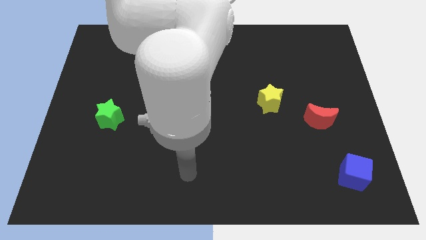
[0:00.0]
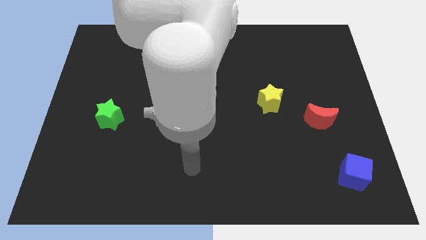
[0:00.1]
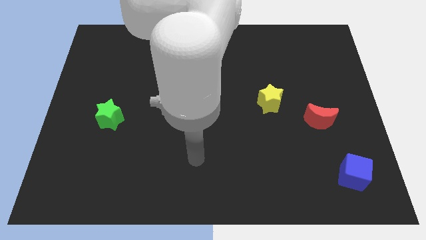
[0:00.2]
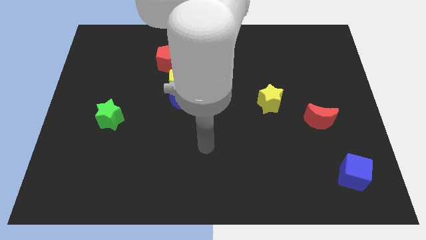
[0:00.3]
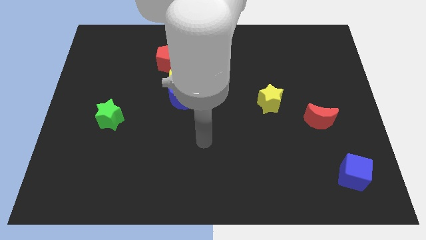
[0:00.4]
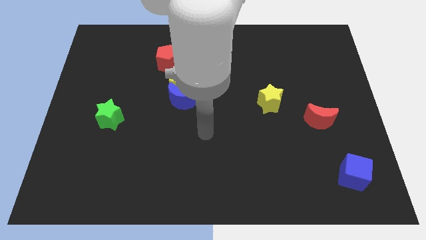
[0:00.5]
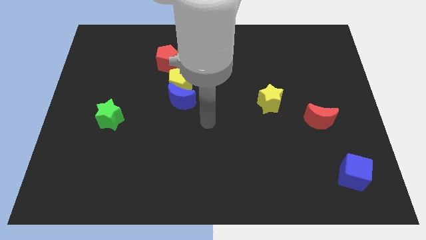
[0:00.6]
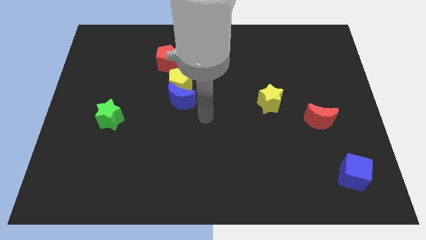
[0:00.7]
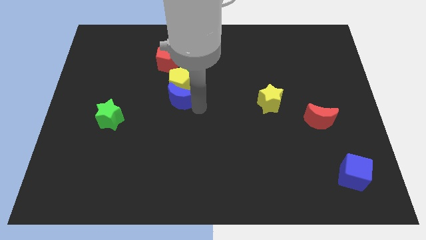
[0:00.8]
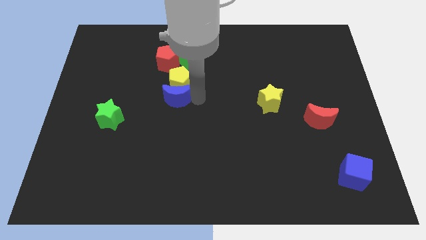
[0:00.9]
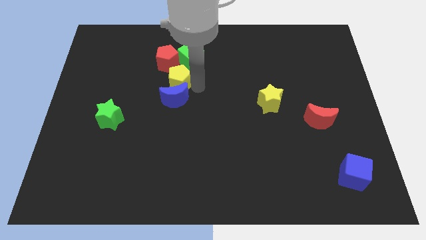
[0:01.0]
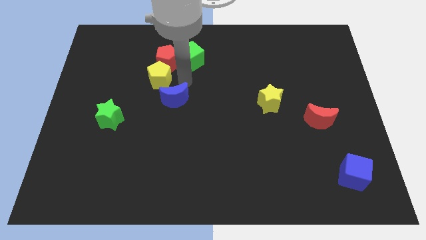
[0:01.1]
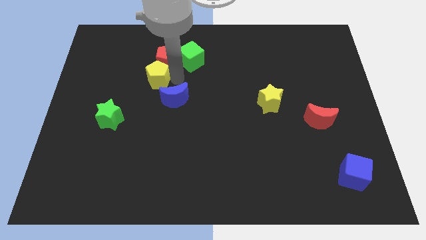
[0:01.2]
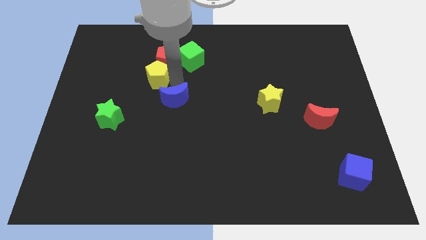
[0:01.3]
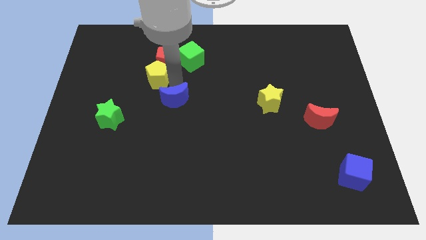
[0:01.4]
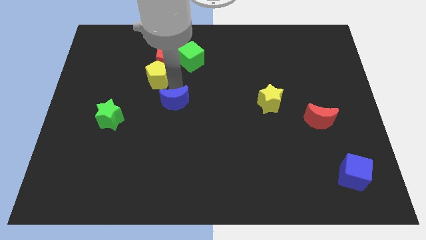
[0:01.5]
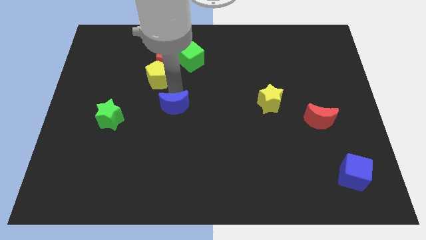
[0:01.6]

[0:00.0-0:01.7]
pull the blue moon apart from the yellow pentagon

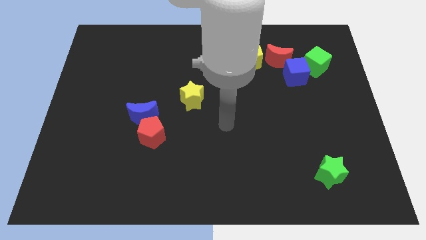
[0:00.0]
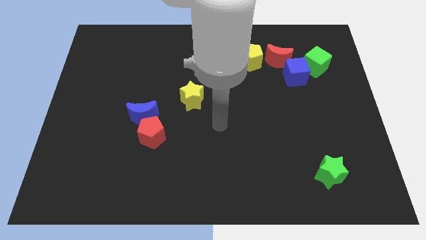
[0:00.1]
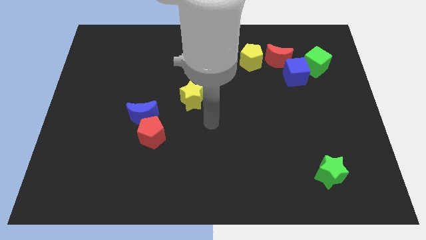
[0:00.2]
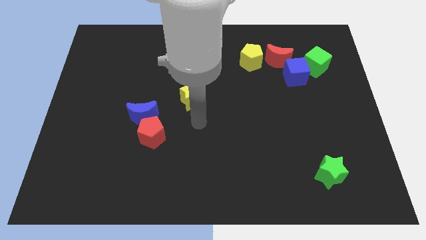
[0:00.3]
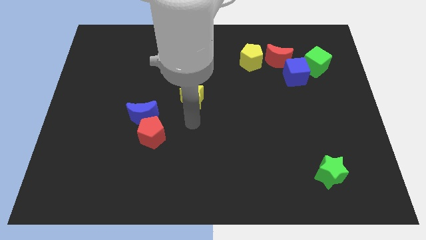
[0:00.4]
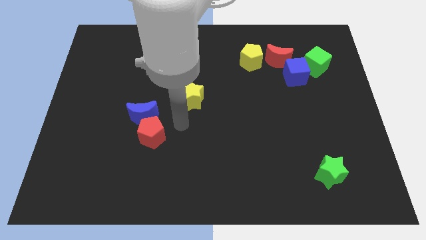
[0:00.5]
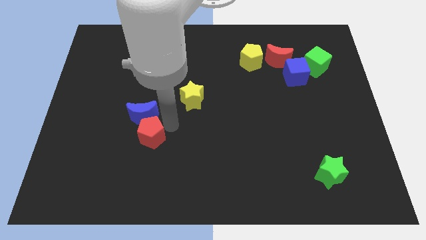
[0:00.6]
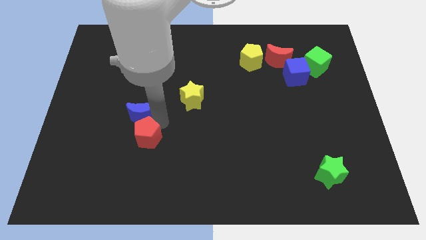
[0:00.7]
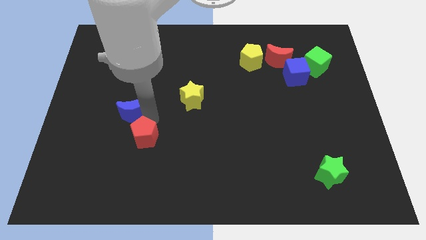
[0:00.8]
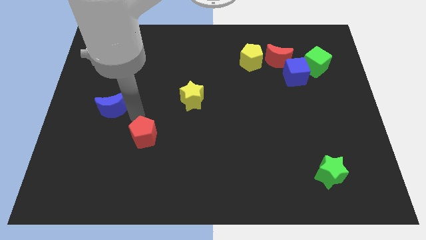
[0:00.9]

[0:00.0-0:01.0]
separate the red pentagon from the blue moon

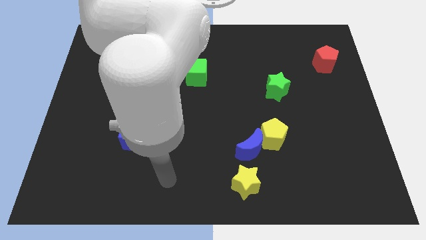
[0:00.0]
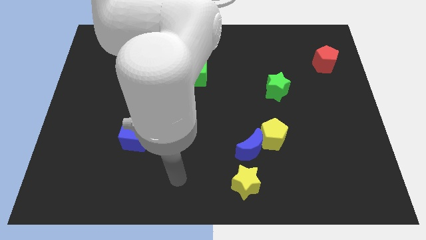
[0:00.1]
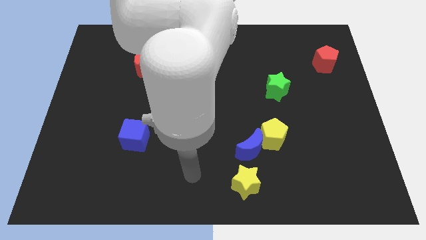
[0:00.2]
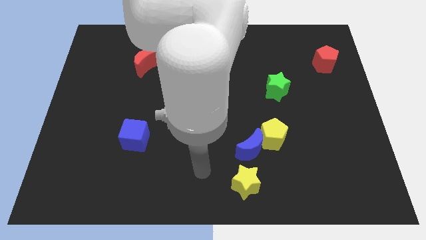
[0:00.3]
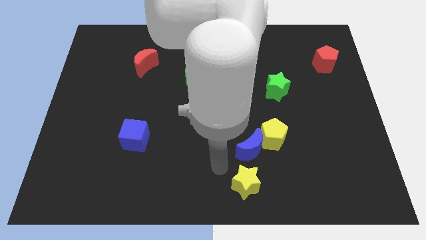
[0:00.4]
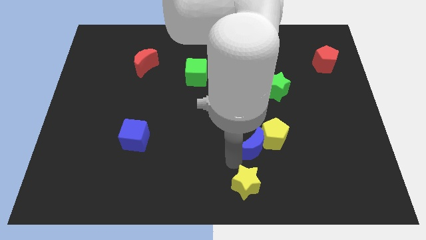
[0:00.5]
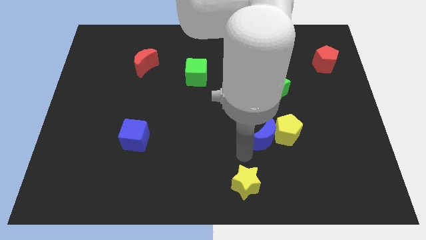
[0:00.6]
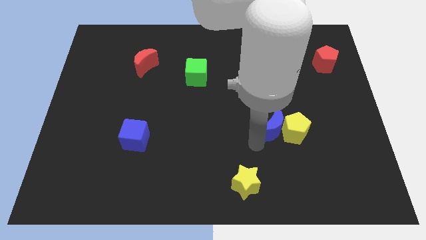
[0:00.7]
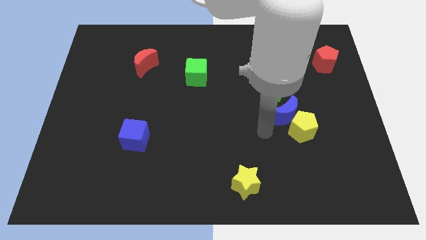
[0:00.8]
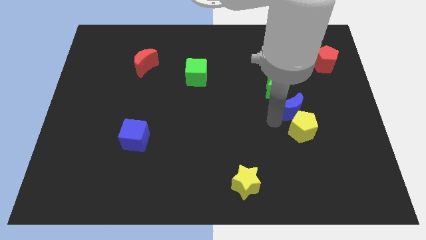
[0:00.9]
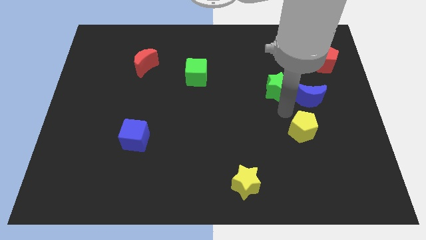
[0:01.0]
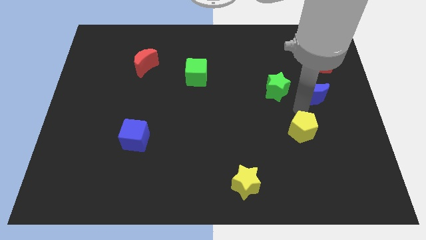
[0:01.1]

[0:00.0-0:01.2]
separate the yellow pentagon from the blue moon

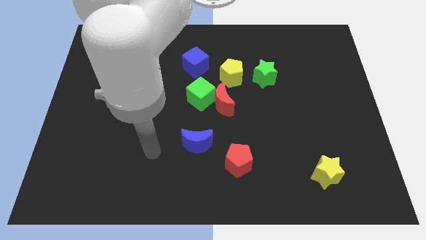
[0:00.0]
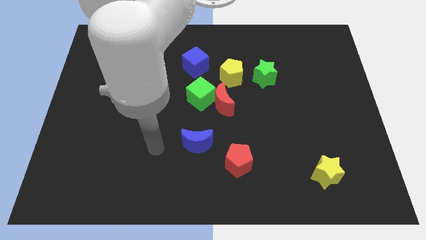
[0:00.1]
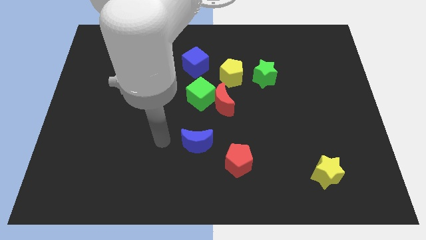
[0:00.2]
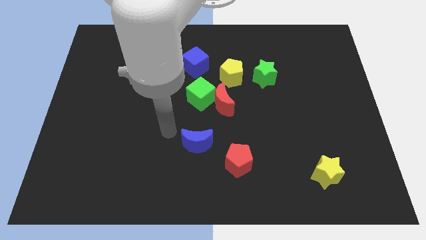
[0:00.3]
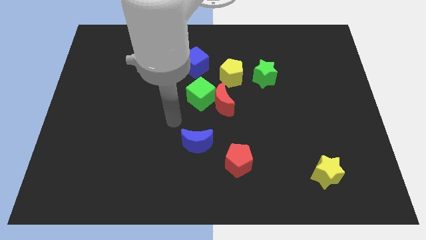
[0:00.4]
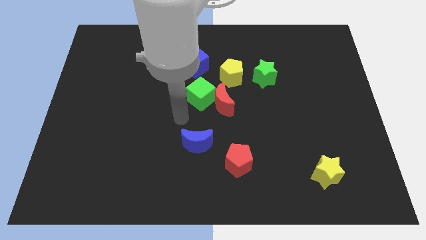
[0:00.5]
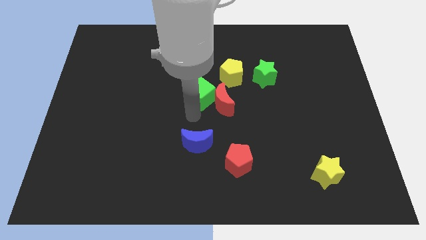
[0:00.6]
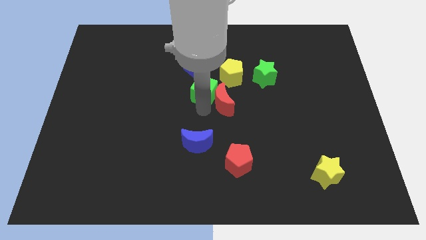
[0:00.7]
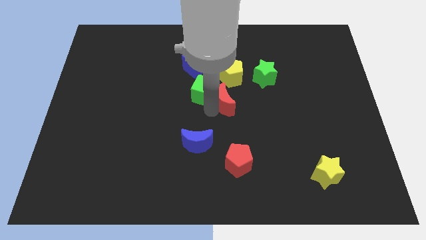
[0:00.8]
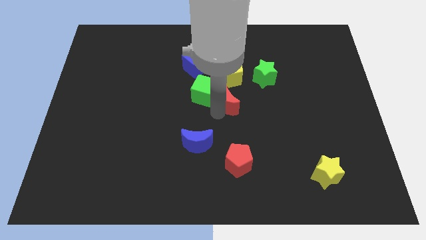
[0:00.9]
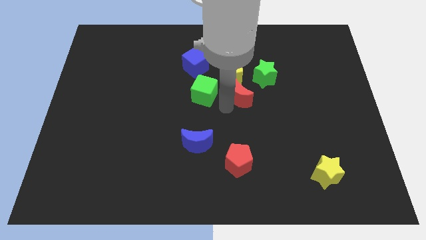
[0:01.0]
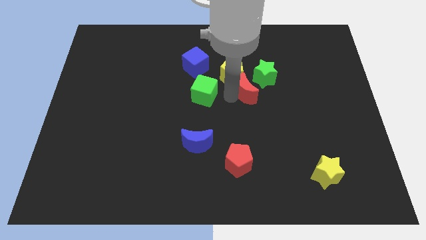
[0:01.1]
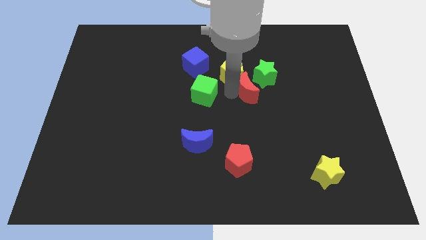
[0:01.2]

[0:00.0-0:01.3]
move the green cube away from the red moon

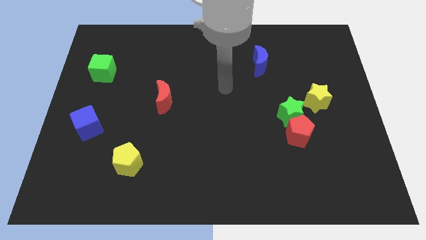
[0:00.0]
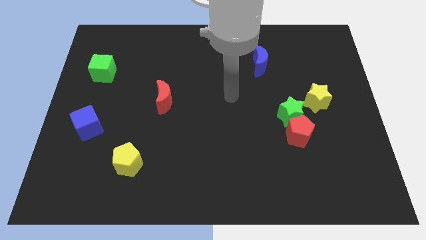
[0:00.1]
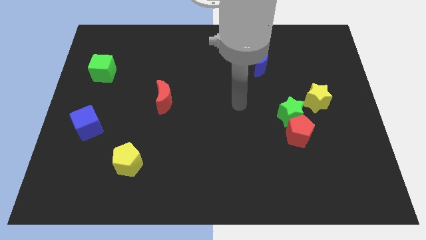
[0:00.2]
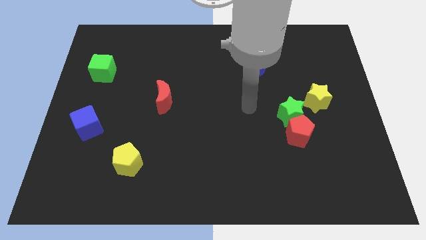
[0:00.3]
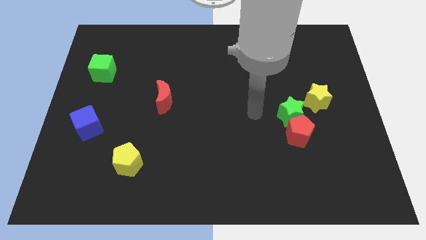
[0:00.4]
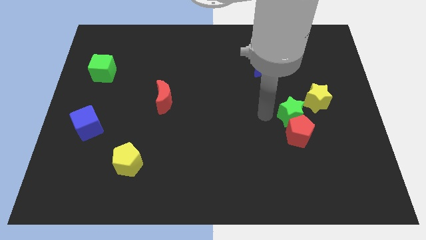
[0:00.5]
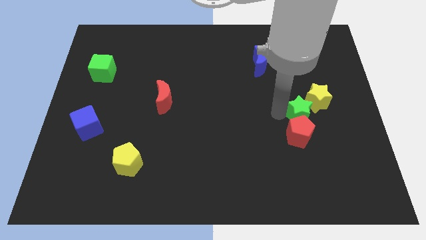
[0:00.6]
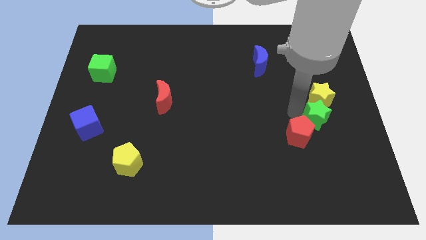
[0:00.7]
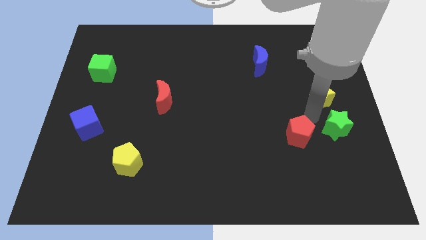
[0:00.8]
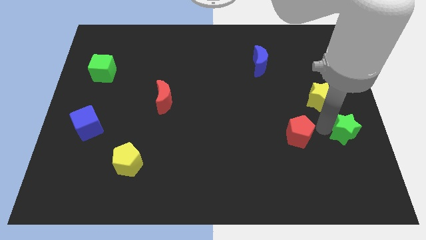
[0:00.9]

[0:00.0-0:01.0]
separate the red pentagon from the green star

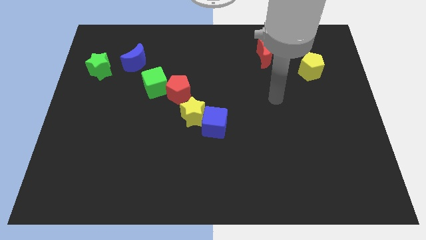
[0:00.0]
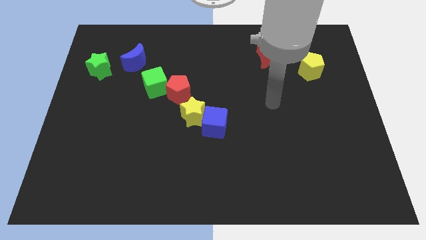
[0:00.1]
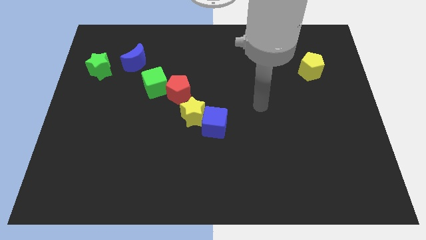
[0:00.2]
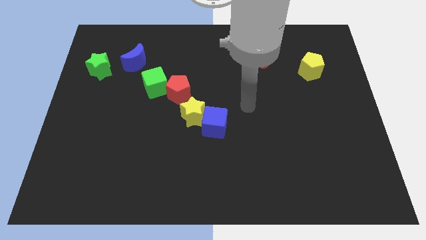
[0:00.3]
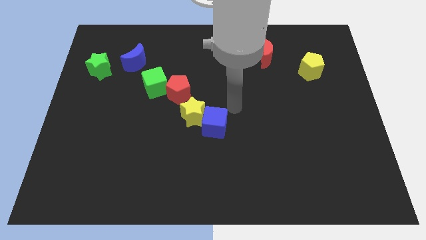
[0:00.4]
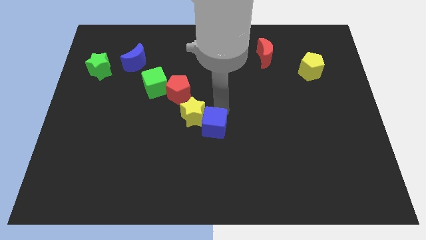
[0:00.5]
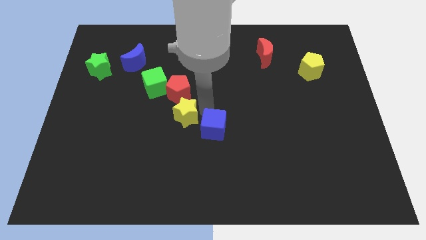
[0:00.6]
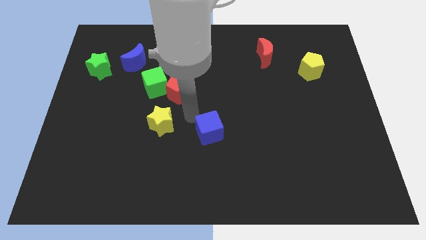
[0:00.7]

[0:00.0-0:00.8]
move the blue cube away from the yellow star

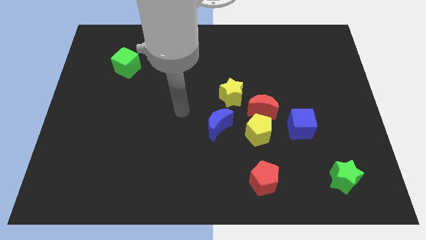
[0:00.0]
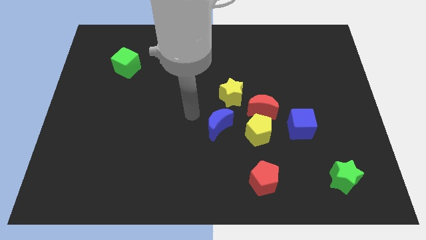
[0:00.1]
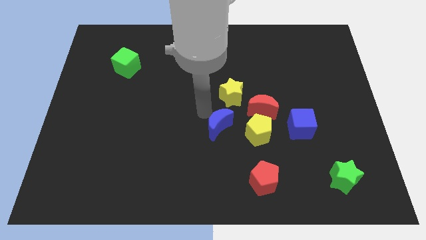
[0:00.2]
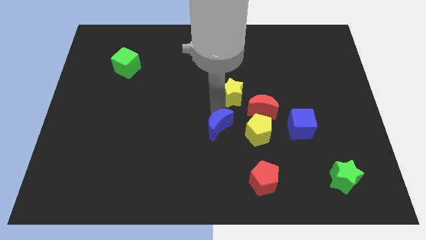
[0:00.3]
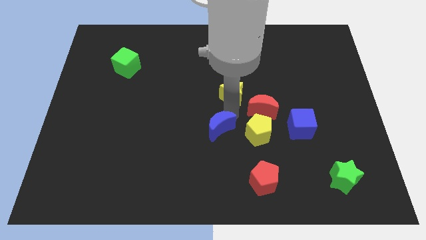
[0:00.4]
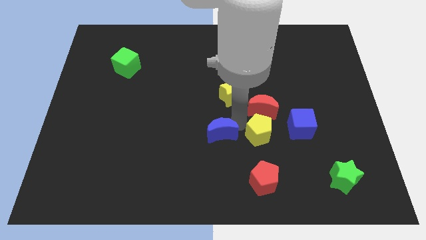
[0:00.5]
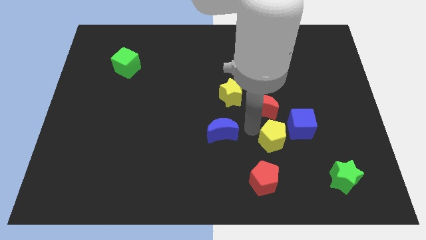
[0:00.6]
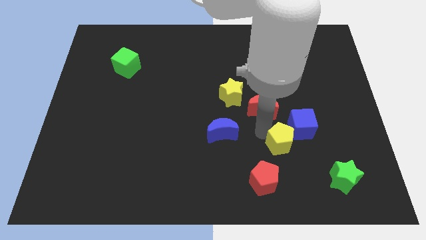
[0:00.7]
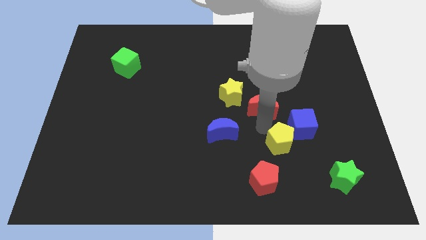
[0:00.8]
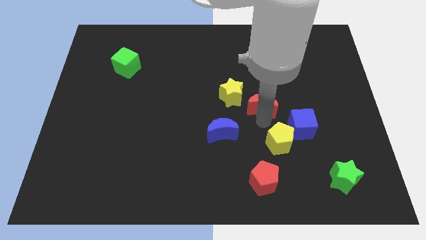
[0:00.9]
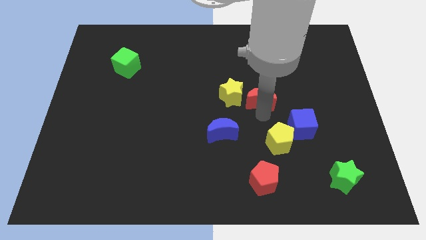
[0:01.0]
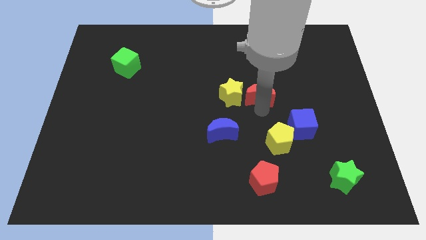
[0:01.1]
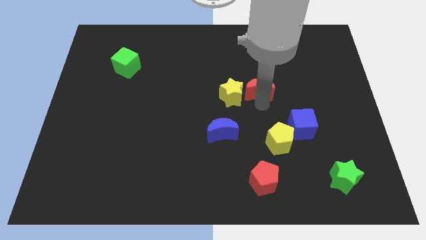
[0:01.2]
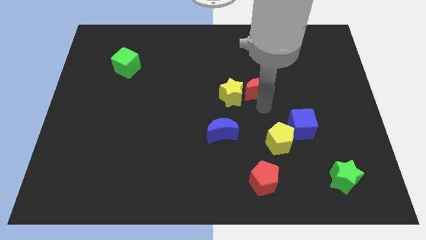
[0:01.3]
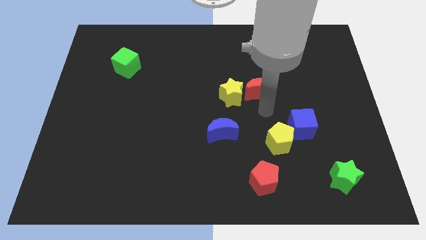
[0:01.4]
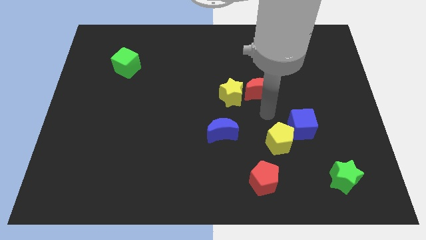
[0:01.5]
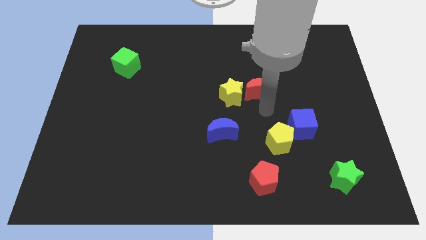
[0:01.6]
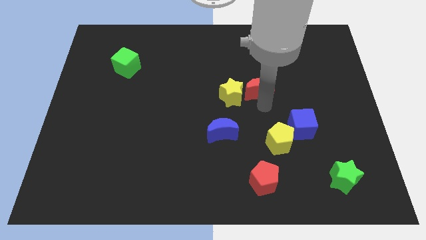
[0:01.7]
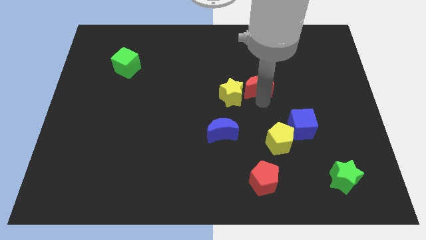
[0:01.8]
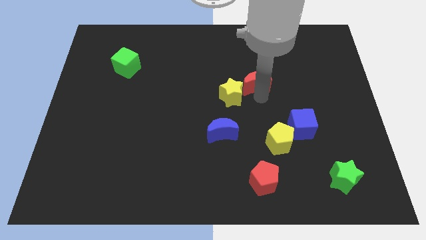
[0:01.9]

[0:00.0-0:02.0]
separate the red moon from the yellow pentagon, yellow star, and blue cube

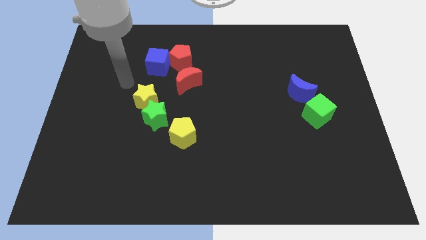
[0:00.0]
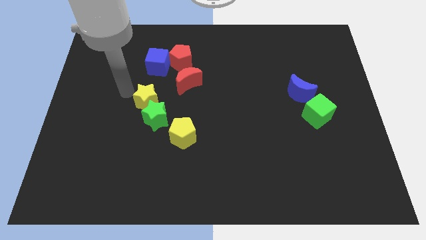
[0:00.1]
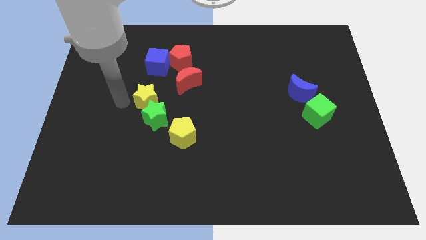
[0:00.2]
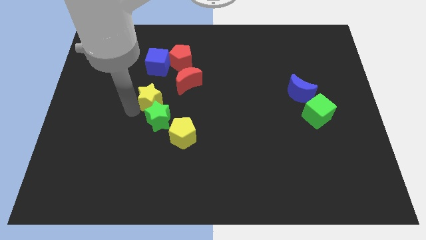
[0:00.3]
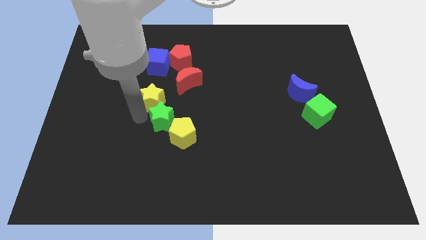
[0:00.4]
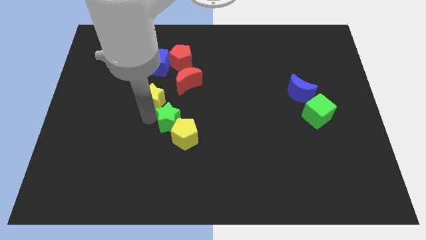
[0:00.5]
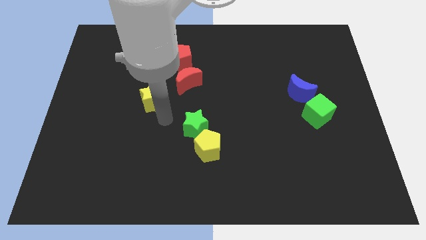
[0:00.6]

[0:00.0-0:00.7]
move the yellow star away from the green star
